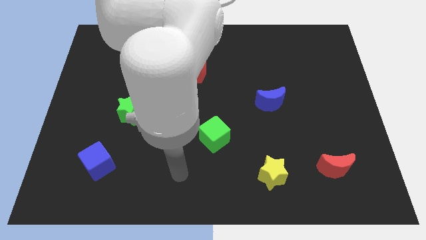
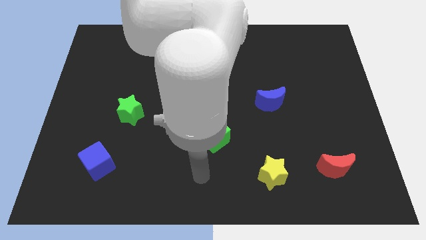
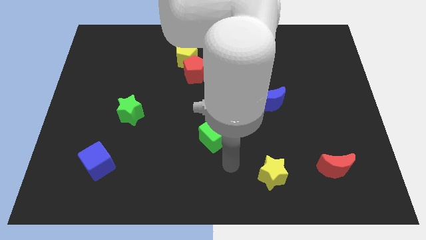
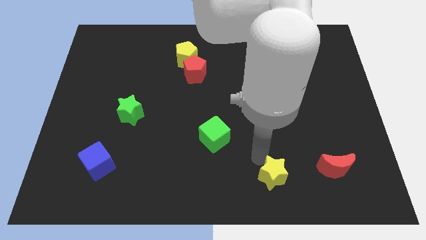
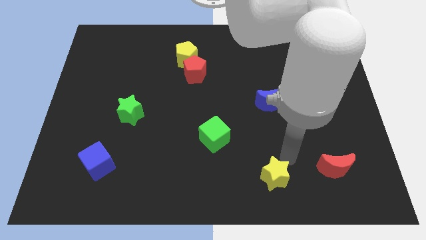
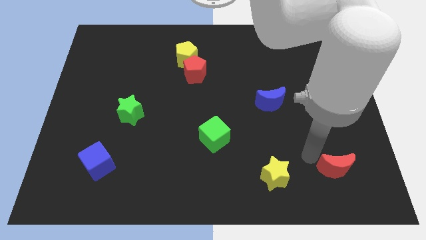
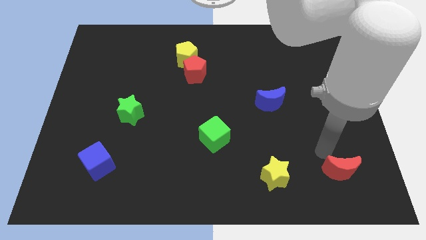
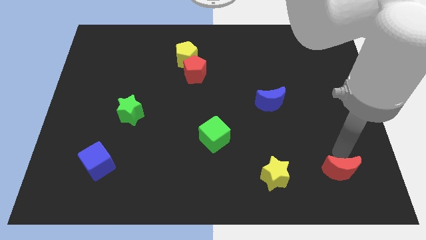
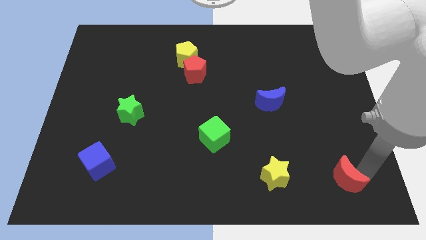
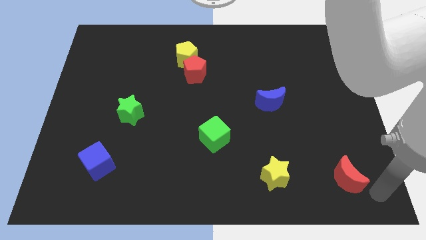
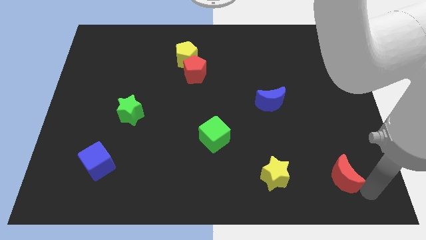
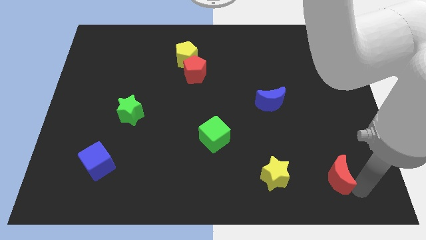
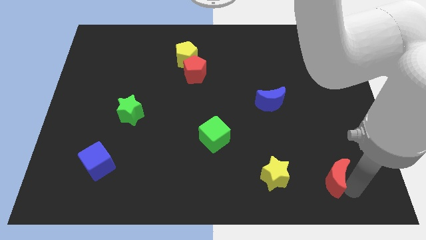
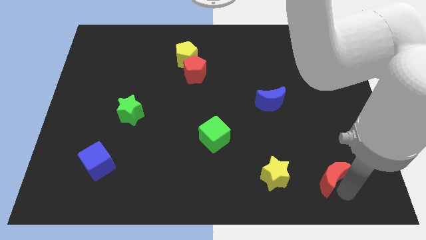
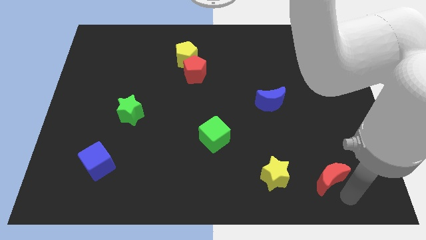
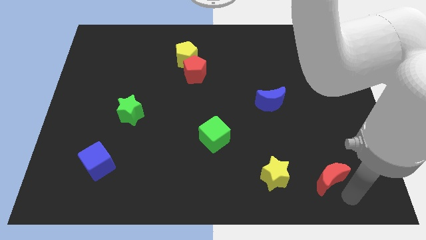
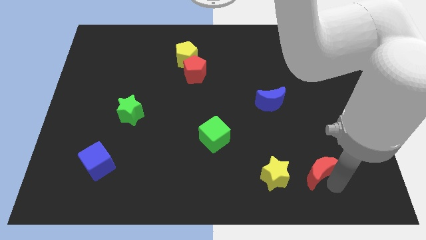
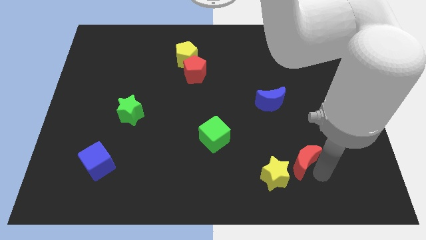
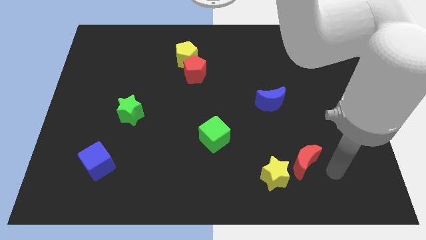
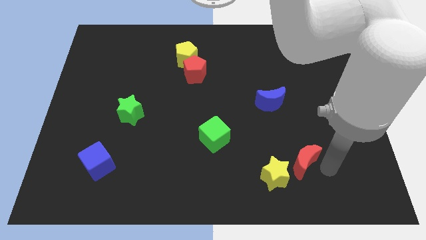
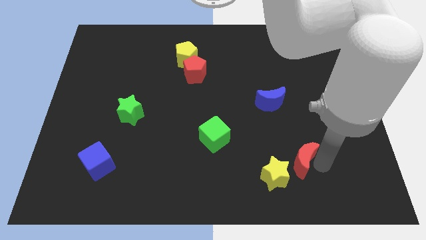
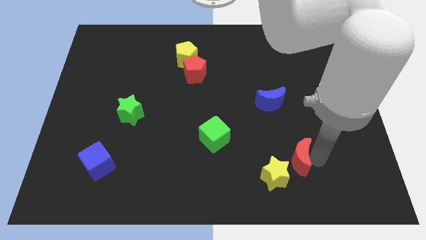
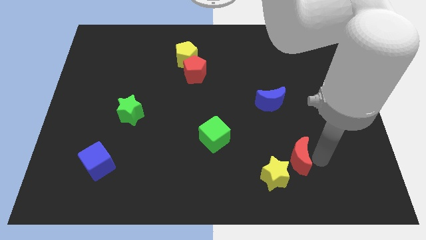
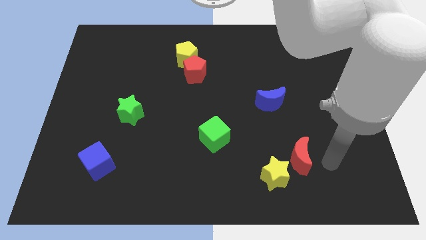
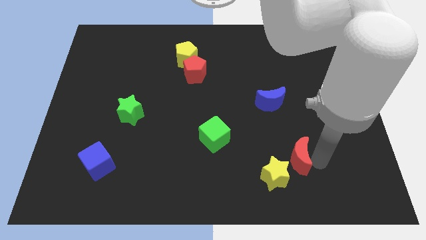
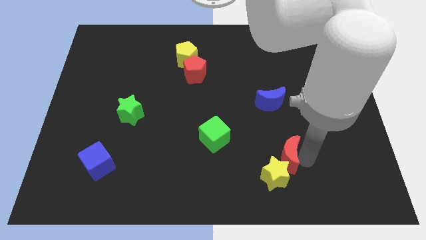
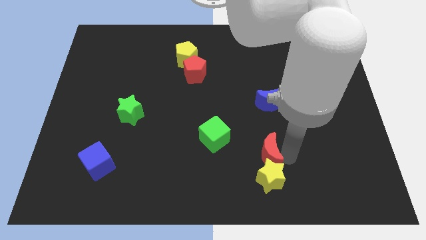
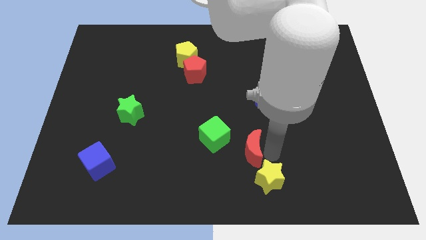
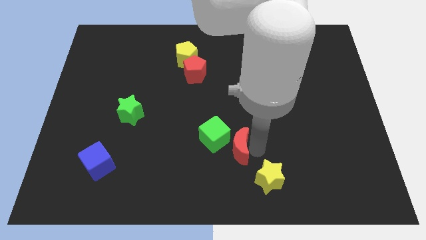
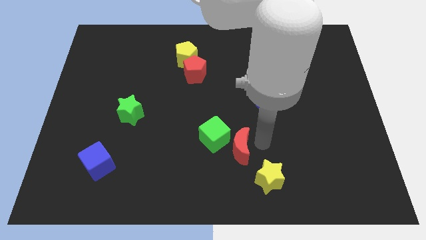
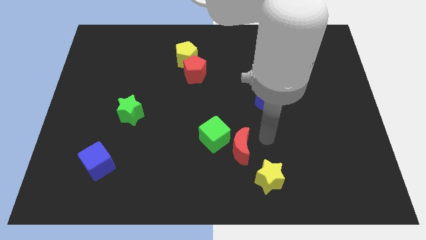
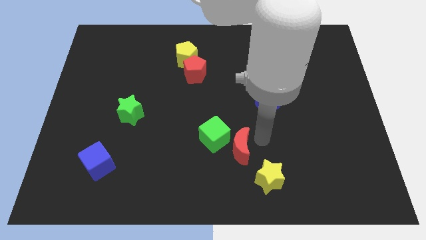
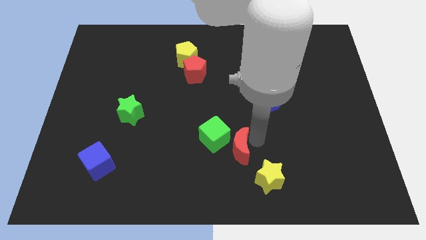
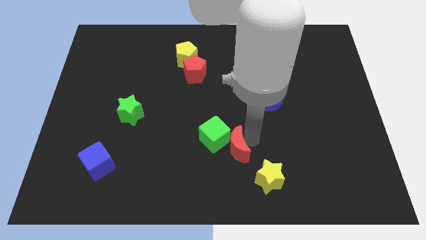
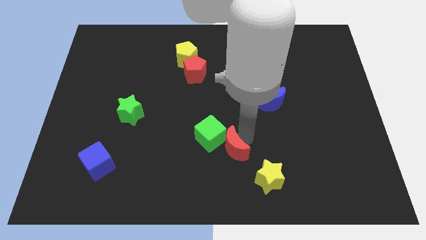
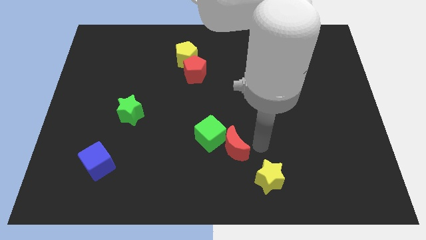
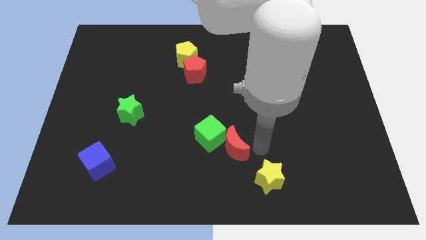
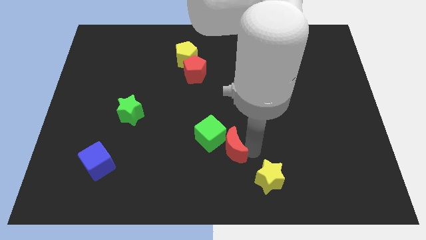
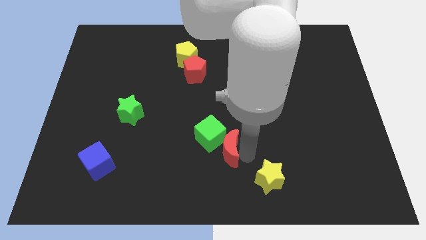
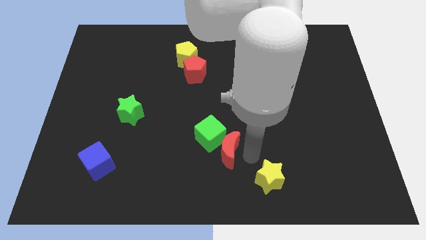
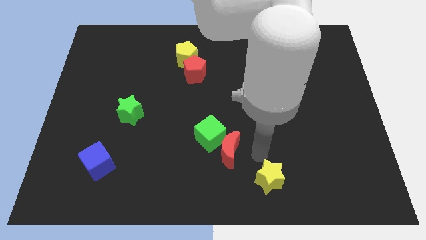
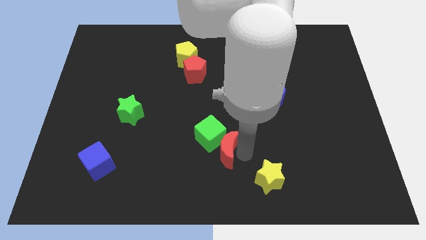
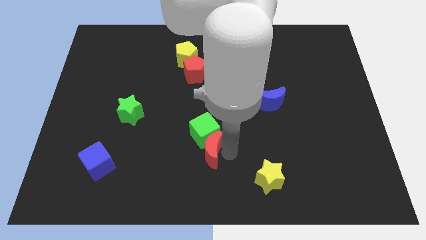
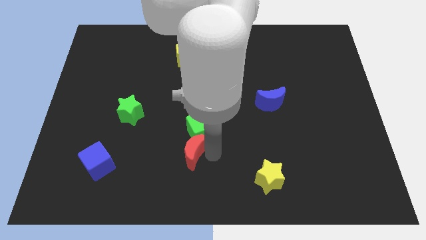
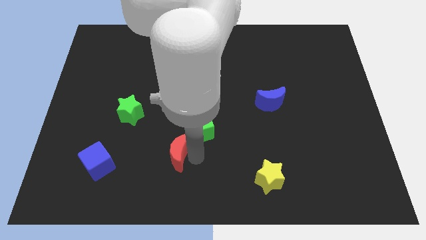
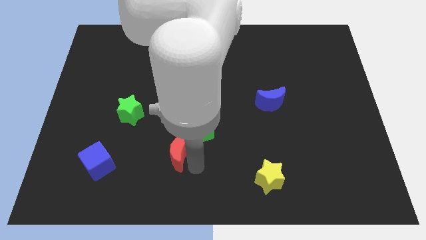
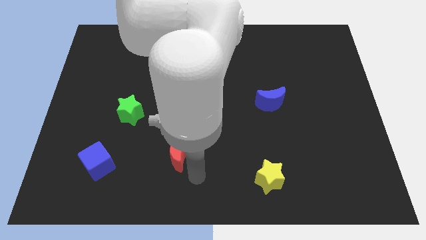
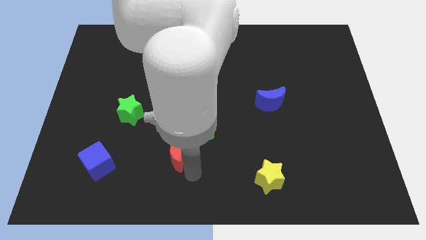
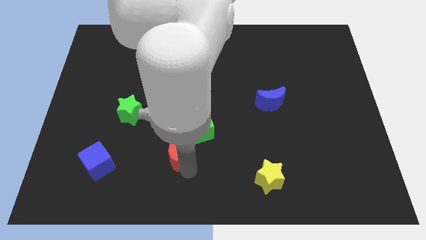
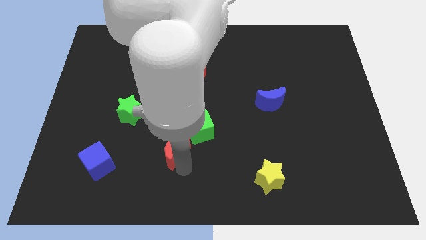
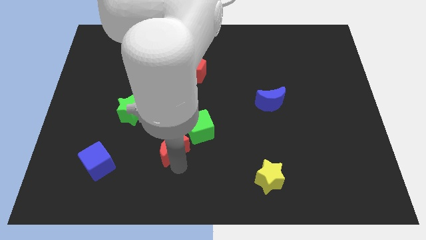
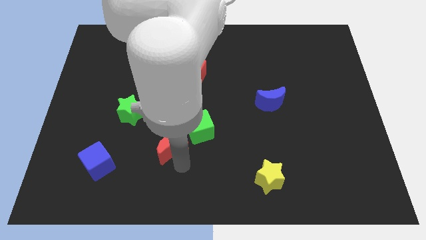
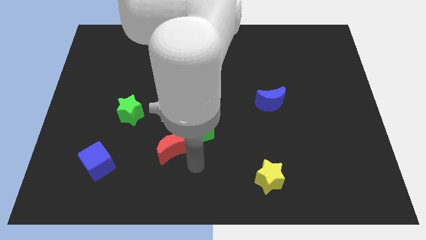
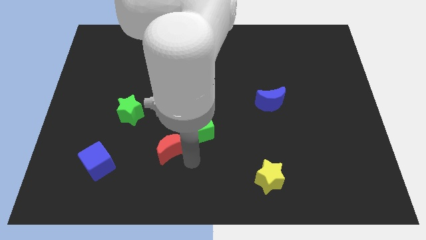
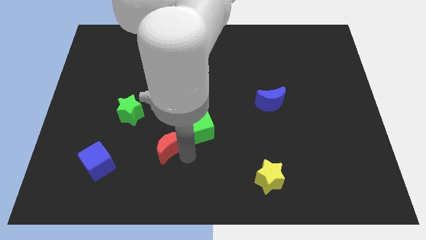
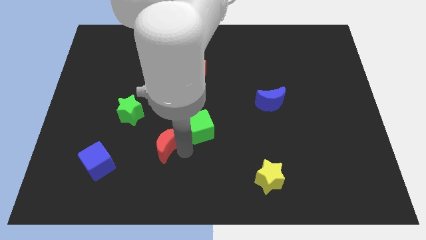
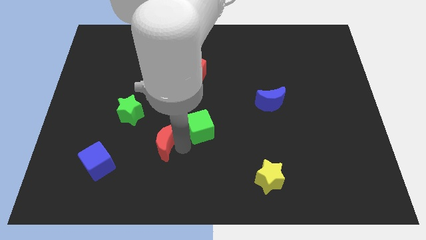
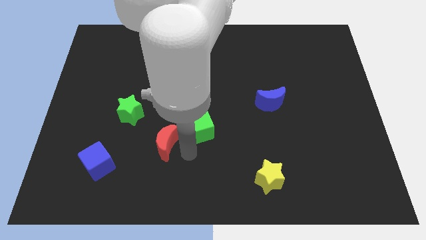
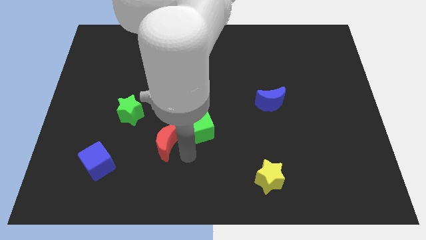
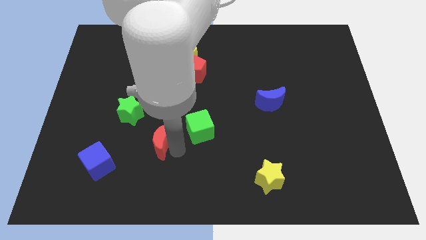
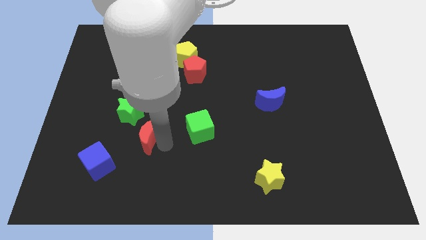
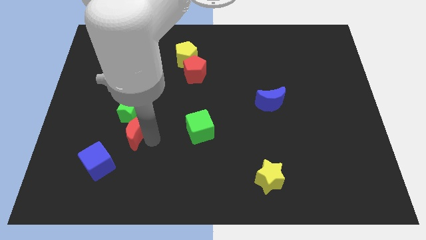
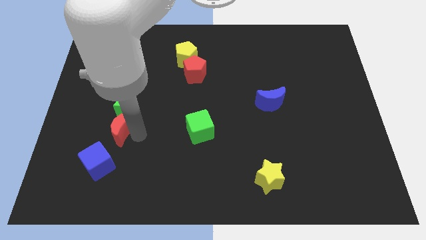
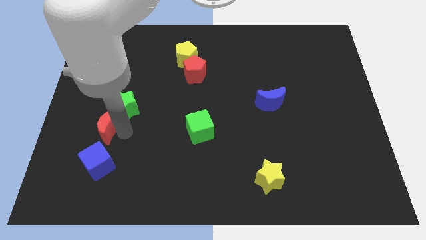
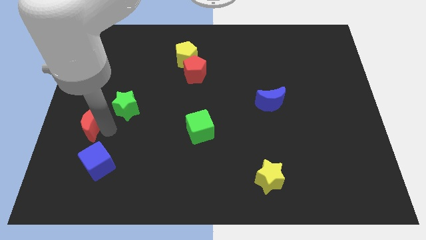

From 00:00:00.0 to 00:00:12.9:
push the red moon to the left side
